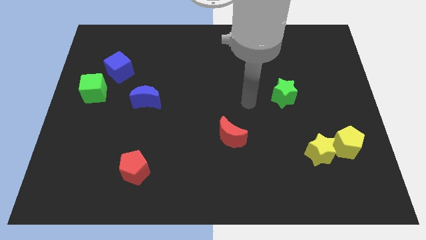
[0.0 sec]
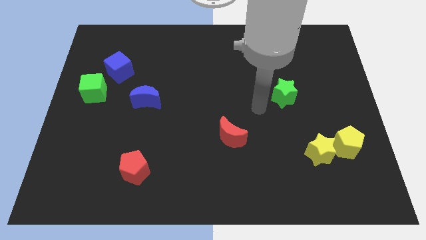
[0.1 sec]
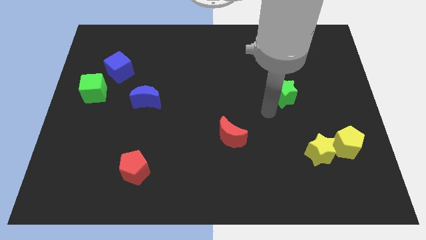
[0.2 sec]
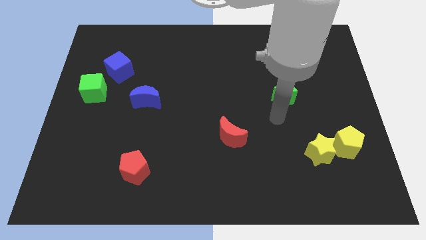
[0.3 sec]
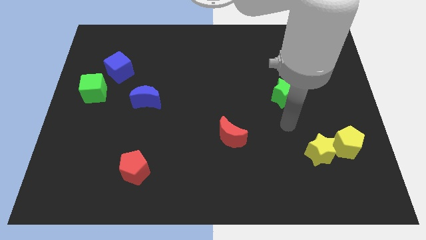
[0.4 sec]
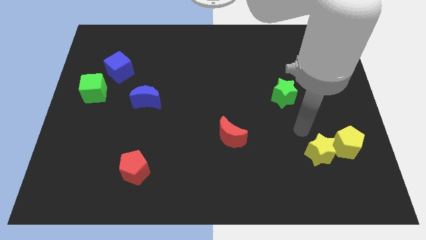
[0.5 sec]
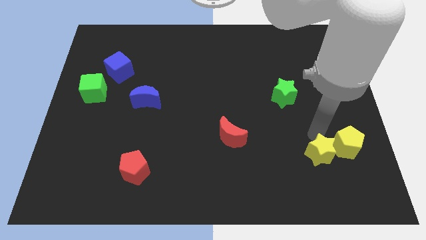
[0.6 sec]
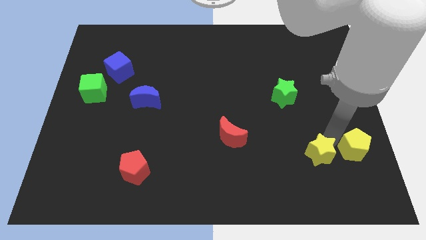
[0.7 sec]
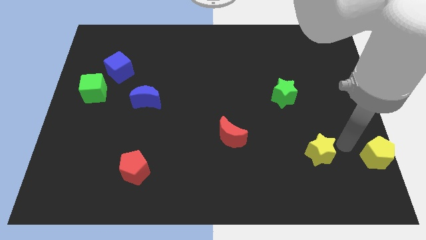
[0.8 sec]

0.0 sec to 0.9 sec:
move the yellow star away from the yellow pentagon

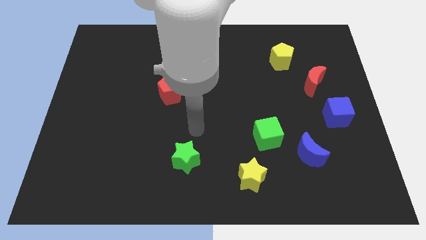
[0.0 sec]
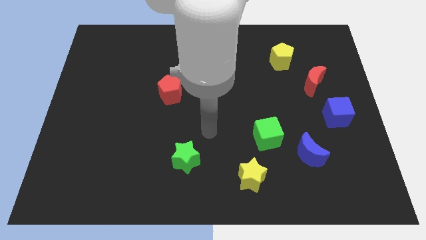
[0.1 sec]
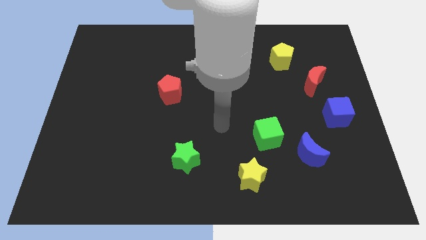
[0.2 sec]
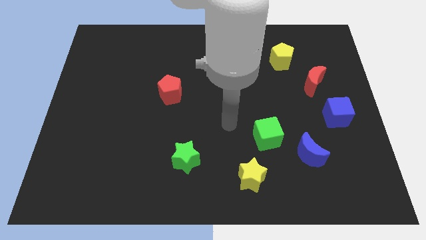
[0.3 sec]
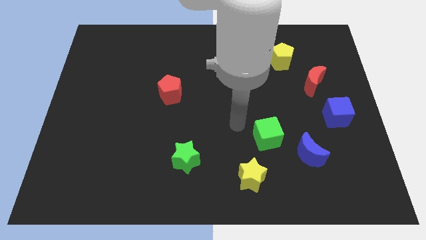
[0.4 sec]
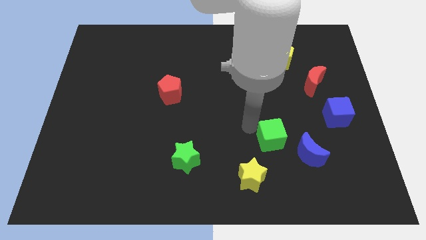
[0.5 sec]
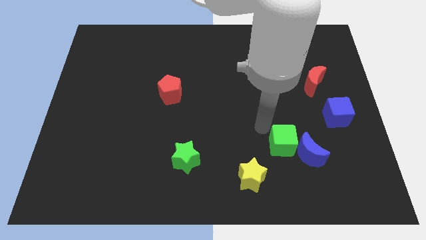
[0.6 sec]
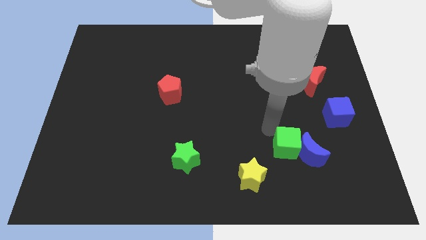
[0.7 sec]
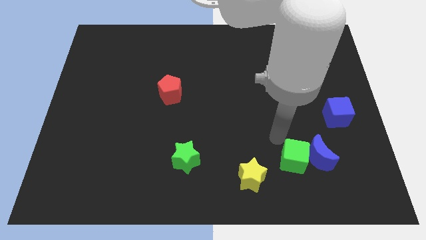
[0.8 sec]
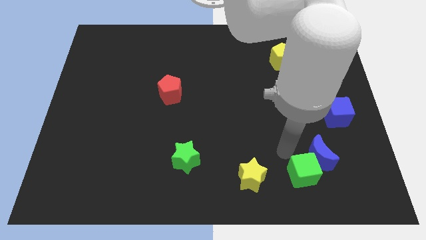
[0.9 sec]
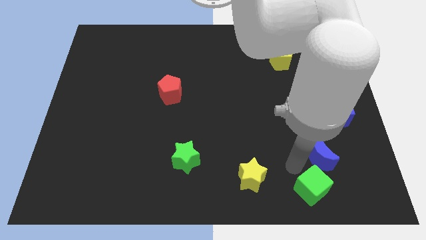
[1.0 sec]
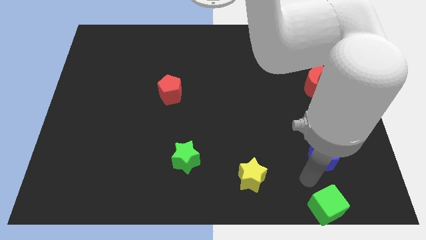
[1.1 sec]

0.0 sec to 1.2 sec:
pull the blue moon apart from the green cube

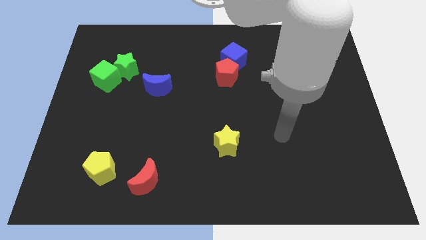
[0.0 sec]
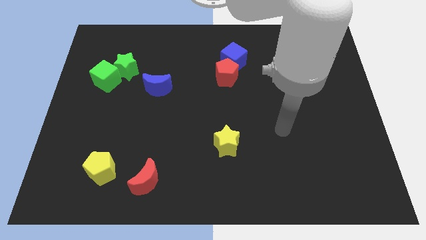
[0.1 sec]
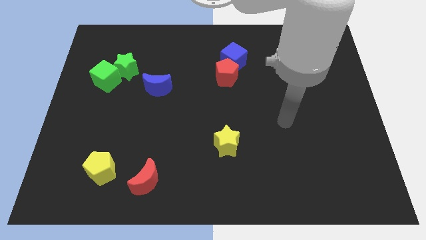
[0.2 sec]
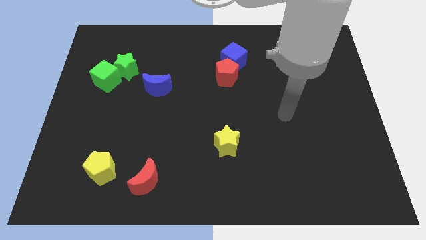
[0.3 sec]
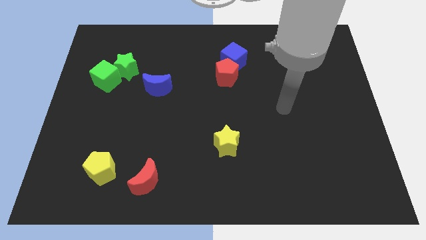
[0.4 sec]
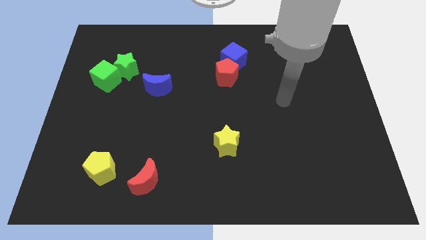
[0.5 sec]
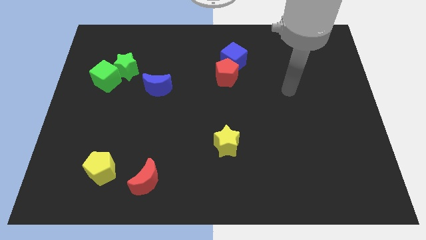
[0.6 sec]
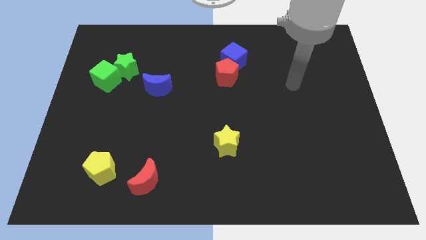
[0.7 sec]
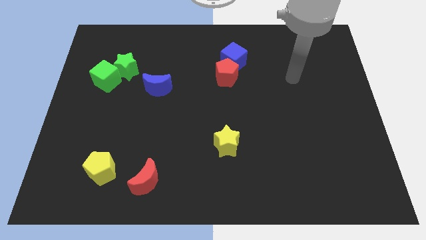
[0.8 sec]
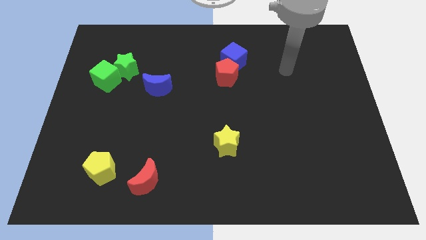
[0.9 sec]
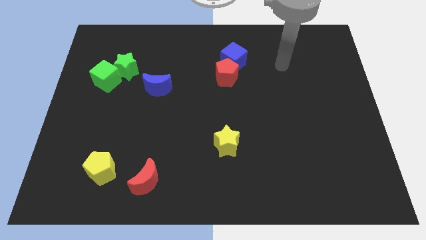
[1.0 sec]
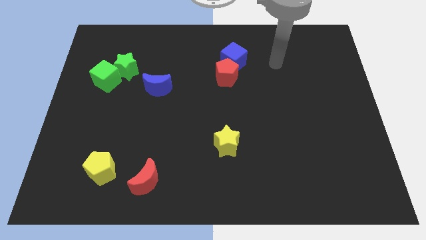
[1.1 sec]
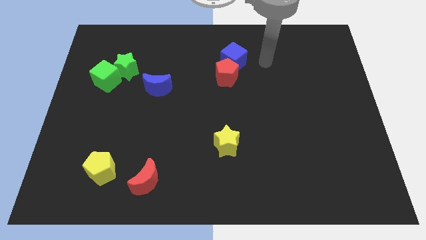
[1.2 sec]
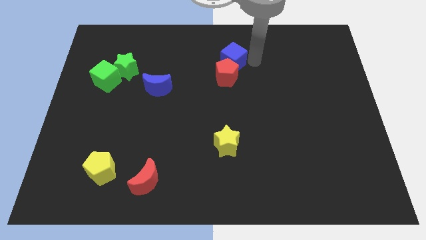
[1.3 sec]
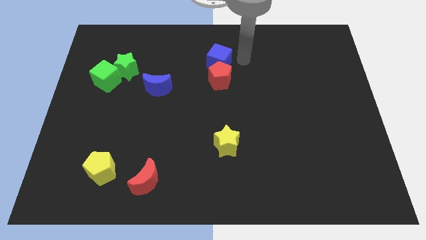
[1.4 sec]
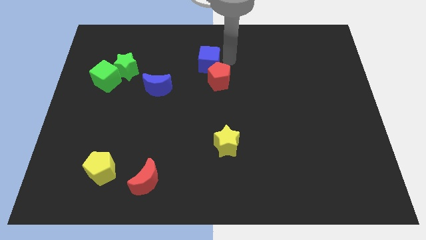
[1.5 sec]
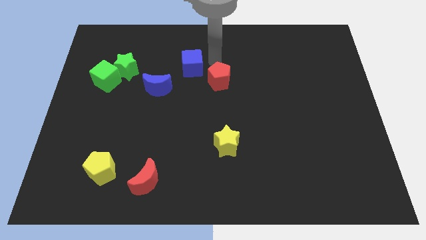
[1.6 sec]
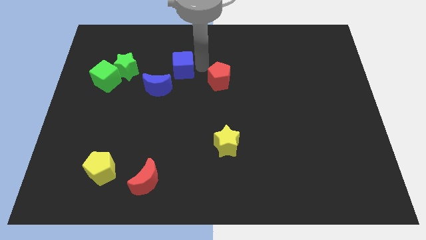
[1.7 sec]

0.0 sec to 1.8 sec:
move the red pentagon away from the blue cube

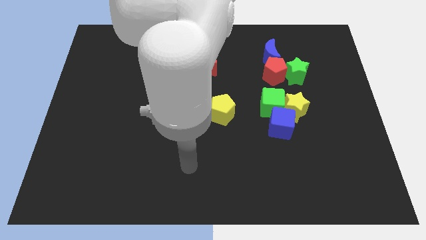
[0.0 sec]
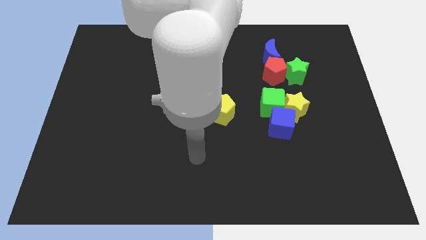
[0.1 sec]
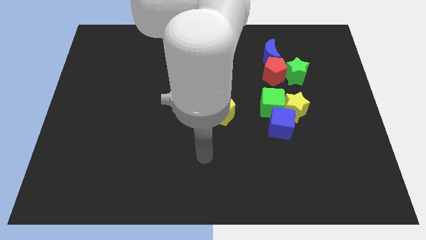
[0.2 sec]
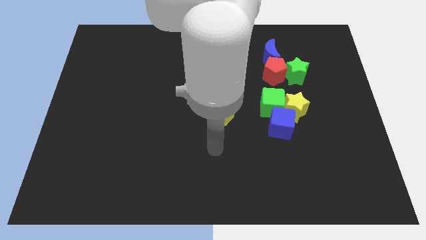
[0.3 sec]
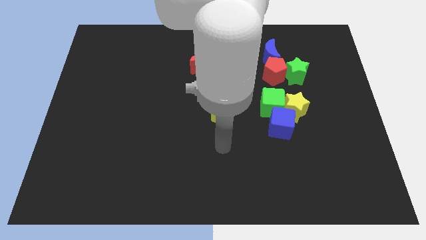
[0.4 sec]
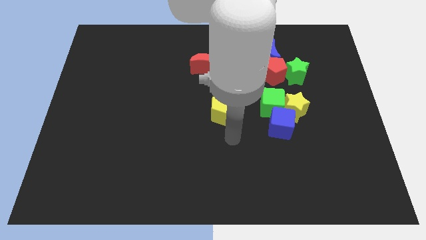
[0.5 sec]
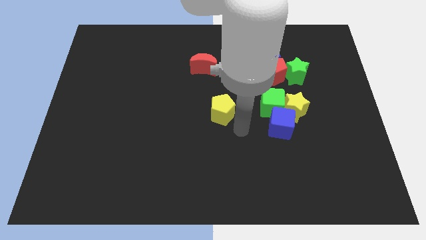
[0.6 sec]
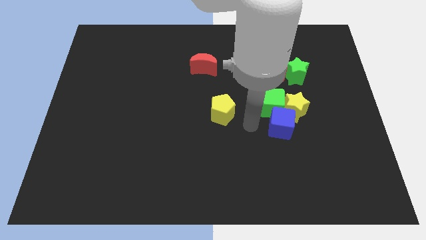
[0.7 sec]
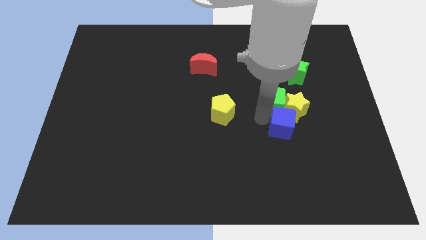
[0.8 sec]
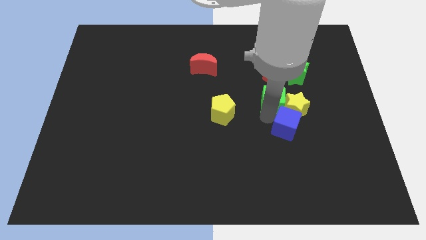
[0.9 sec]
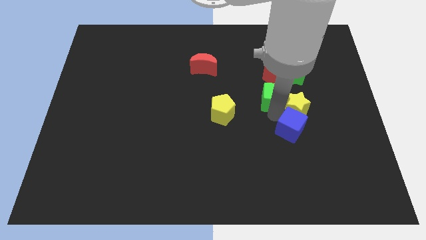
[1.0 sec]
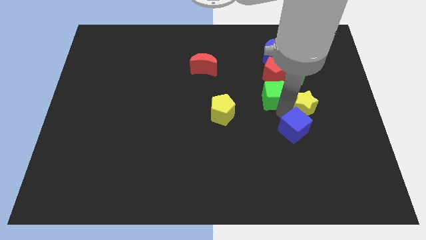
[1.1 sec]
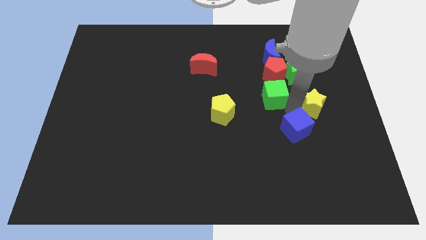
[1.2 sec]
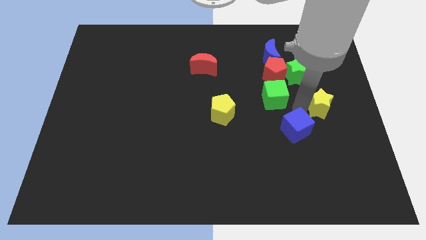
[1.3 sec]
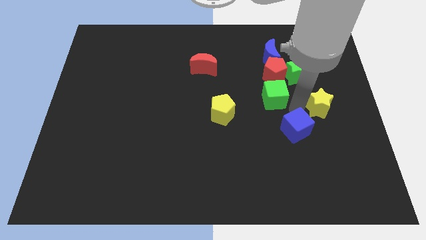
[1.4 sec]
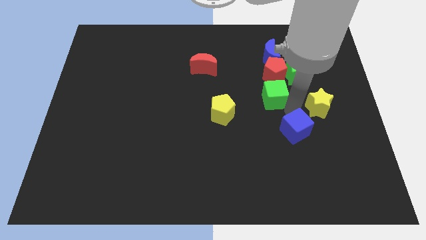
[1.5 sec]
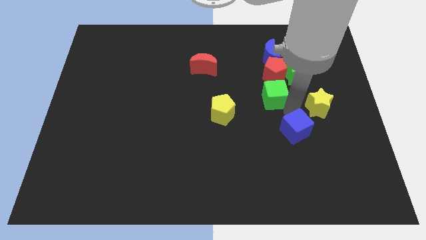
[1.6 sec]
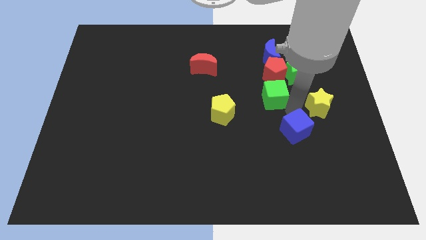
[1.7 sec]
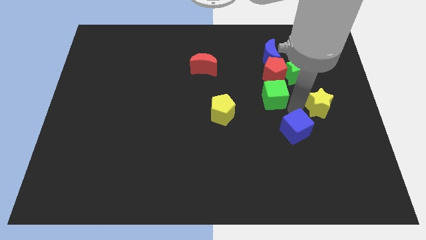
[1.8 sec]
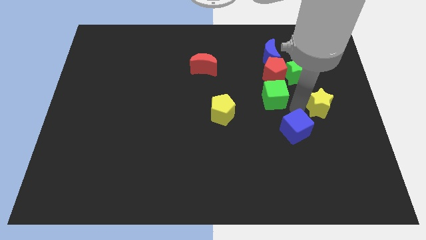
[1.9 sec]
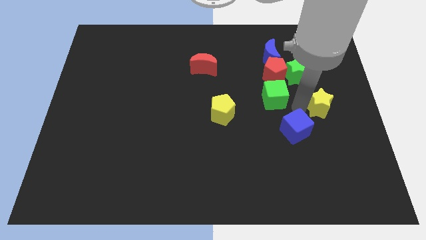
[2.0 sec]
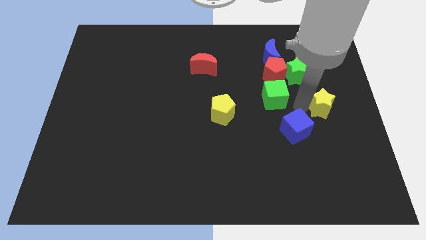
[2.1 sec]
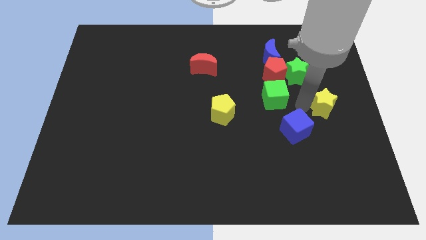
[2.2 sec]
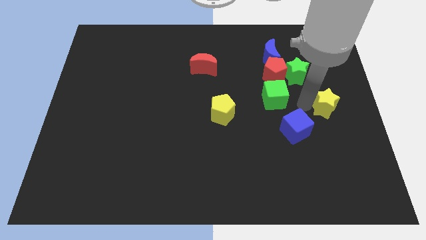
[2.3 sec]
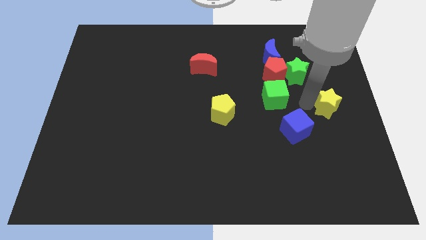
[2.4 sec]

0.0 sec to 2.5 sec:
move the yellow star away from the green cube and blue cube

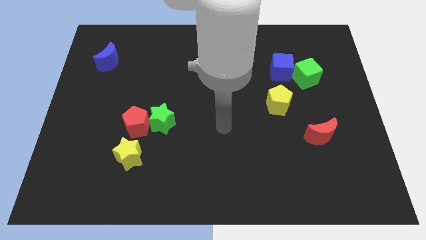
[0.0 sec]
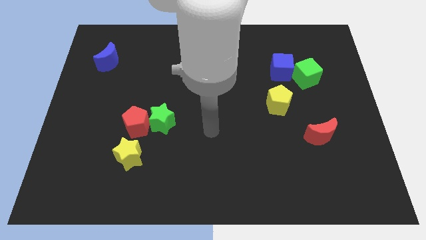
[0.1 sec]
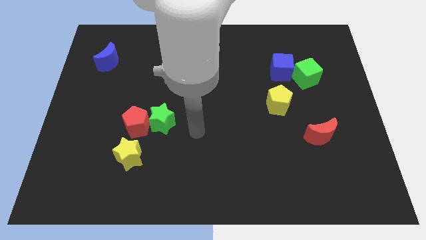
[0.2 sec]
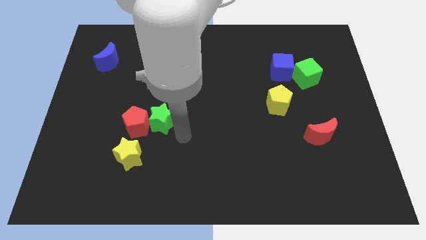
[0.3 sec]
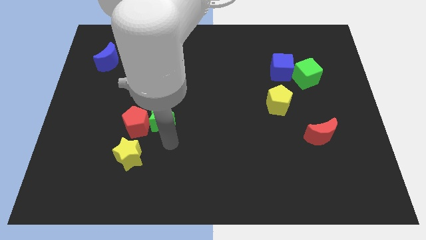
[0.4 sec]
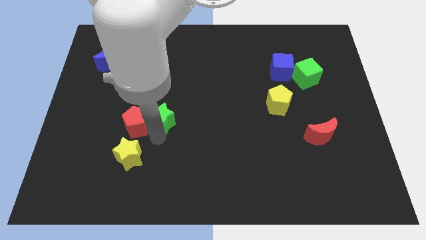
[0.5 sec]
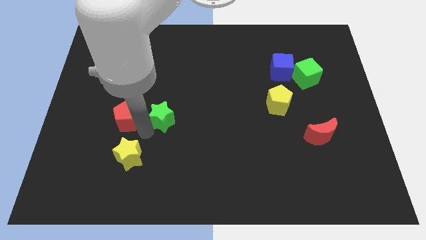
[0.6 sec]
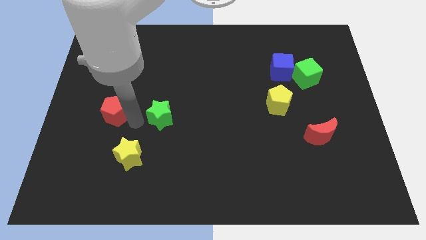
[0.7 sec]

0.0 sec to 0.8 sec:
separate the green star from the red pentagon

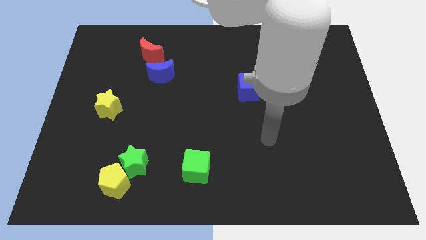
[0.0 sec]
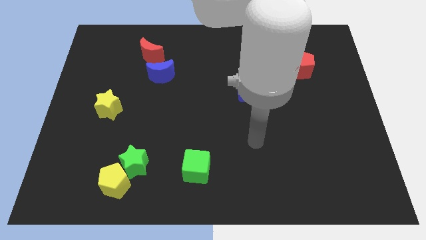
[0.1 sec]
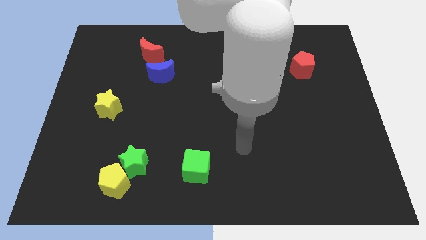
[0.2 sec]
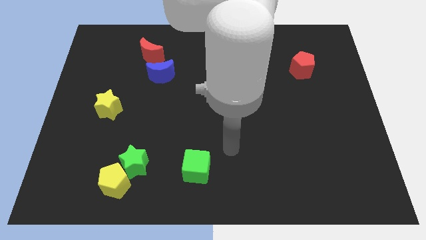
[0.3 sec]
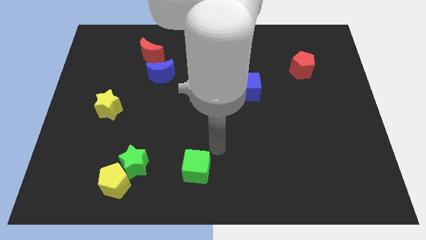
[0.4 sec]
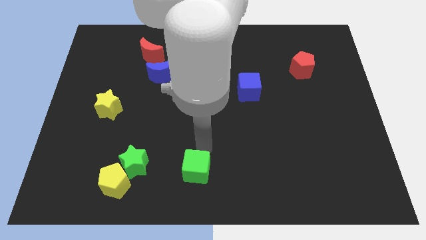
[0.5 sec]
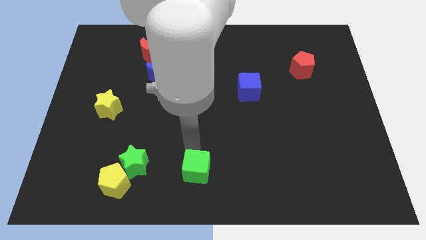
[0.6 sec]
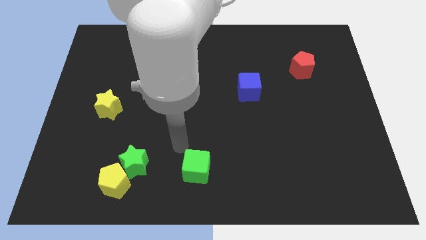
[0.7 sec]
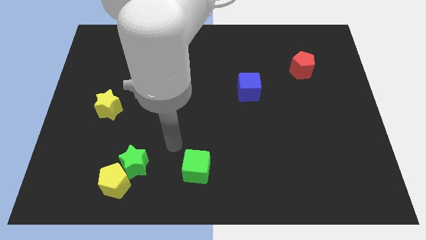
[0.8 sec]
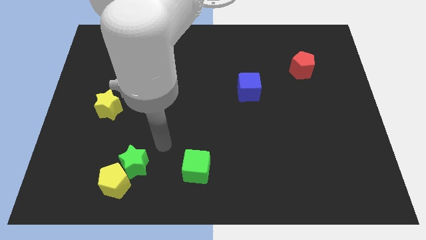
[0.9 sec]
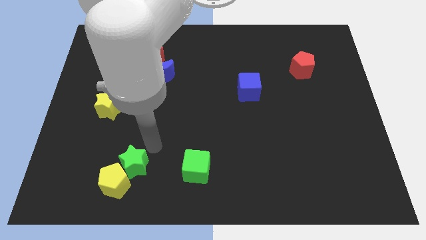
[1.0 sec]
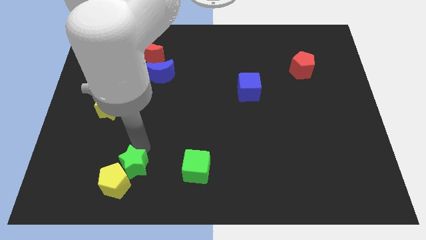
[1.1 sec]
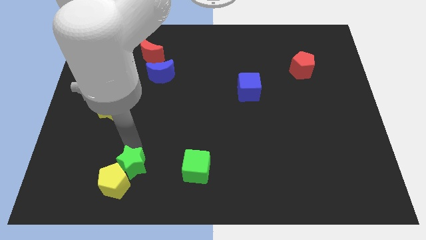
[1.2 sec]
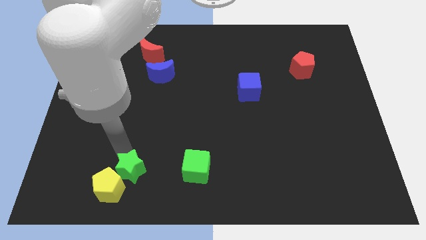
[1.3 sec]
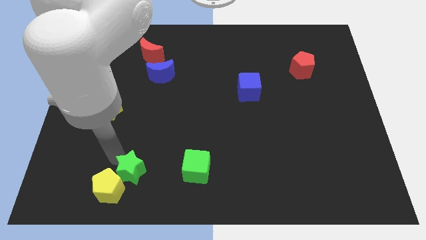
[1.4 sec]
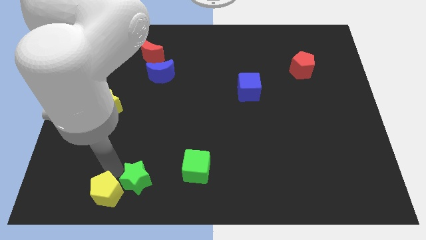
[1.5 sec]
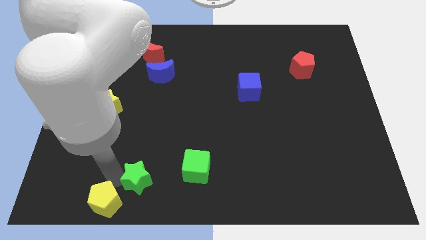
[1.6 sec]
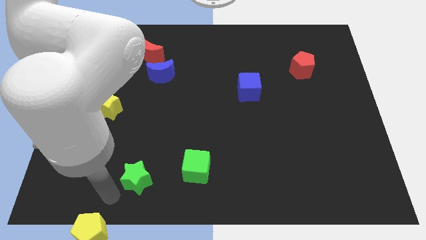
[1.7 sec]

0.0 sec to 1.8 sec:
separate the green star from the yellow pentagon

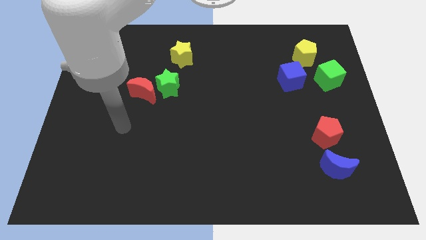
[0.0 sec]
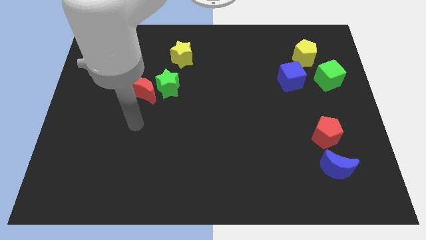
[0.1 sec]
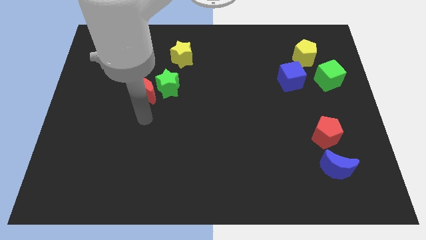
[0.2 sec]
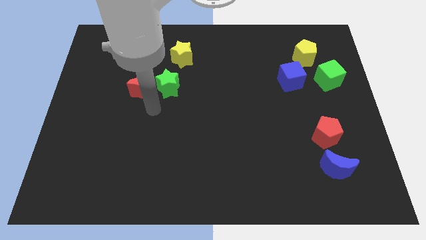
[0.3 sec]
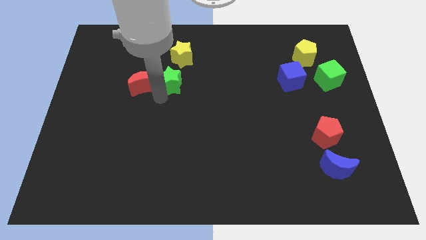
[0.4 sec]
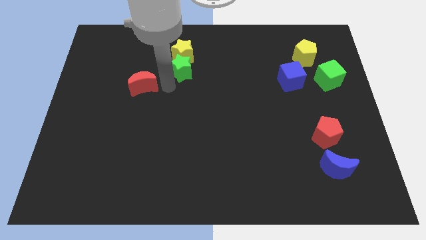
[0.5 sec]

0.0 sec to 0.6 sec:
separate the red moon from the green star
